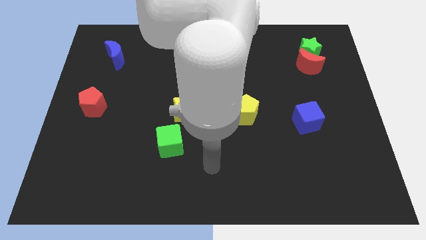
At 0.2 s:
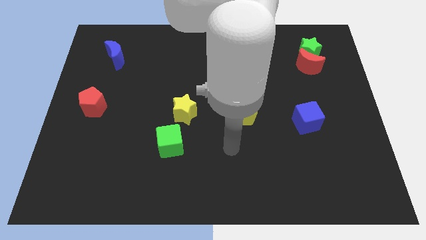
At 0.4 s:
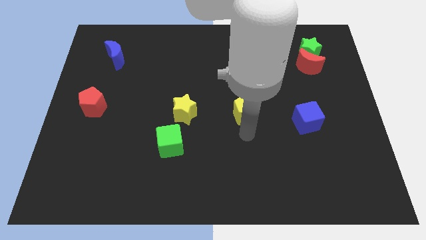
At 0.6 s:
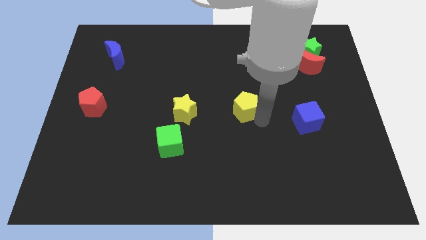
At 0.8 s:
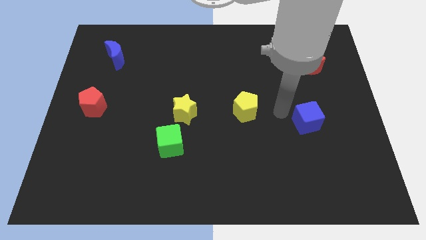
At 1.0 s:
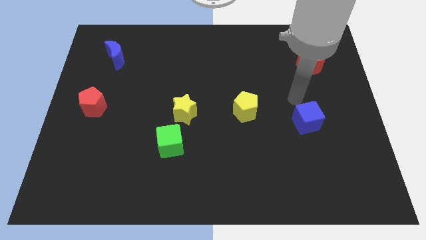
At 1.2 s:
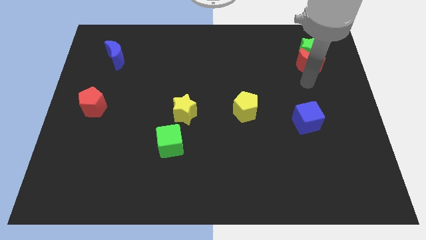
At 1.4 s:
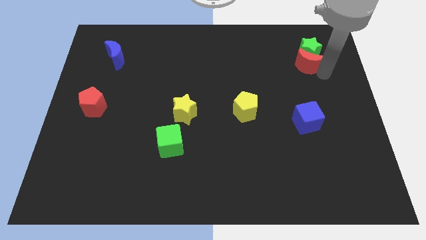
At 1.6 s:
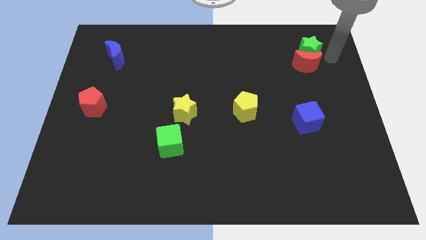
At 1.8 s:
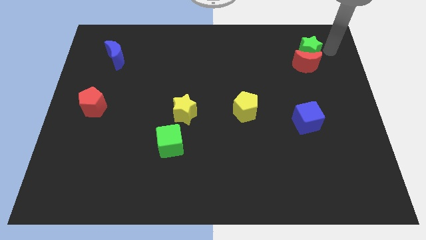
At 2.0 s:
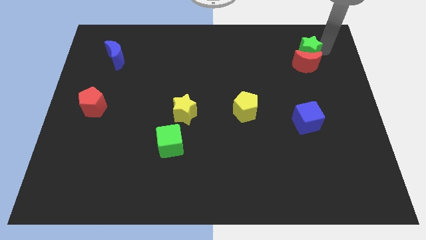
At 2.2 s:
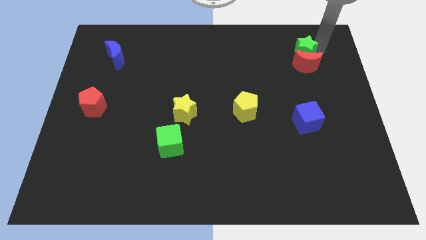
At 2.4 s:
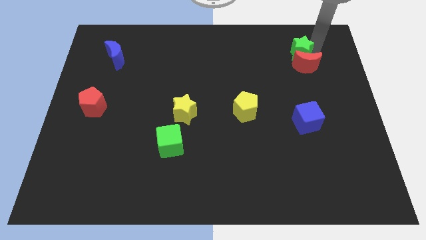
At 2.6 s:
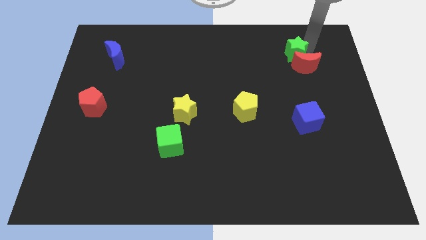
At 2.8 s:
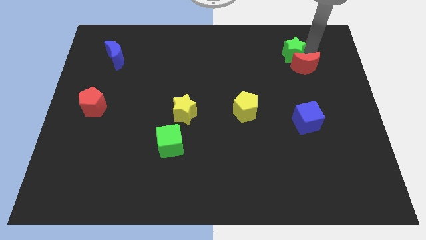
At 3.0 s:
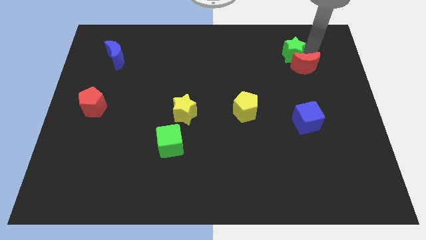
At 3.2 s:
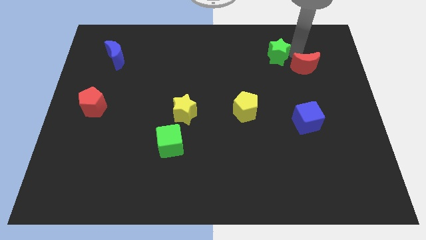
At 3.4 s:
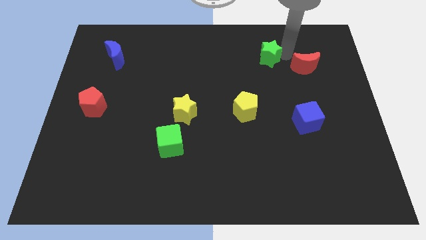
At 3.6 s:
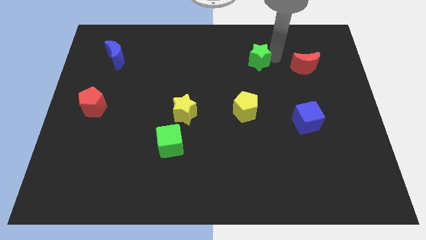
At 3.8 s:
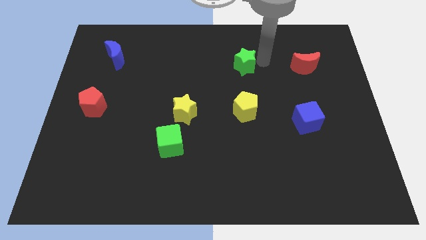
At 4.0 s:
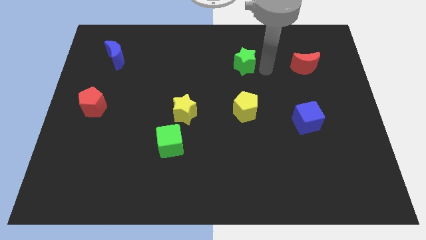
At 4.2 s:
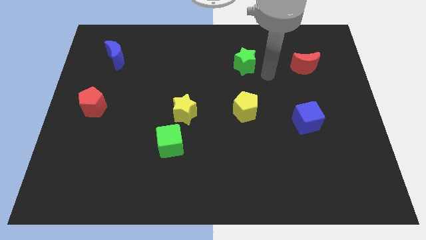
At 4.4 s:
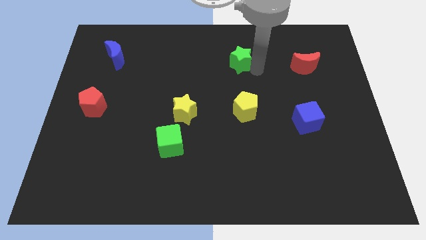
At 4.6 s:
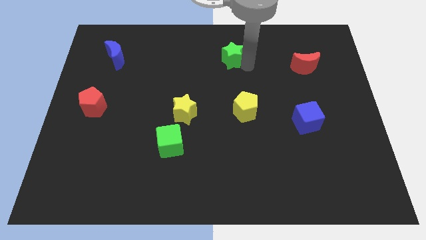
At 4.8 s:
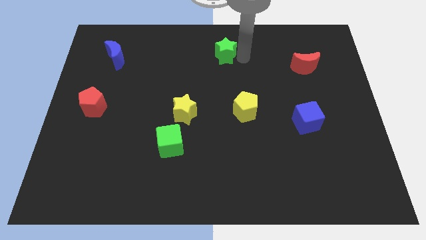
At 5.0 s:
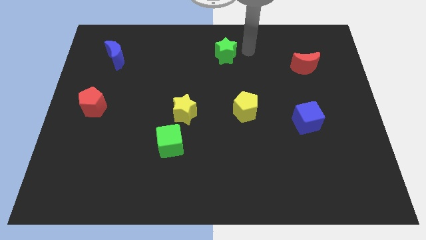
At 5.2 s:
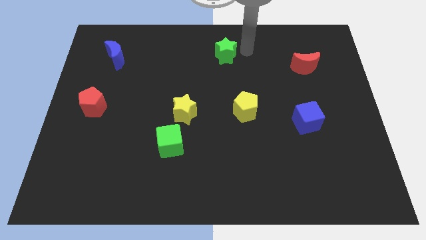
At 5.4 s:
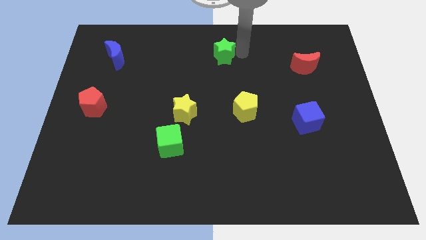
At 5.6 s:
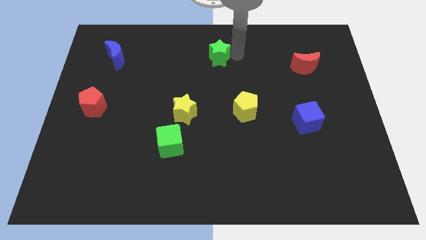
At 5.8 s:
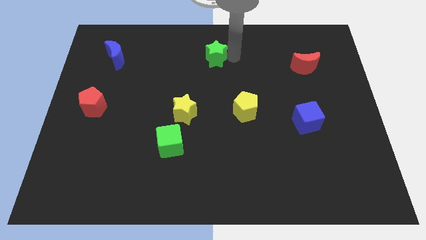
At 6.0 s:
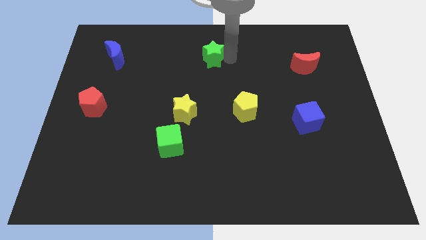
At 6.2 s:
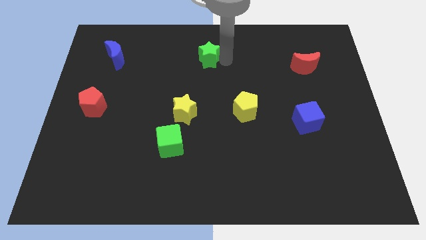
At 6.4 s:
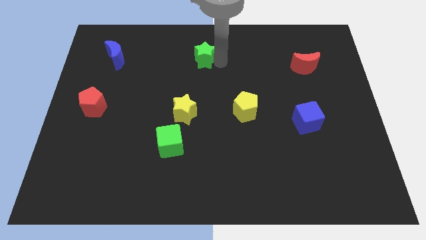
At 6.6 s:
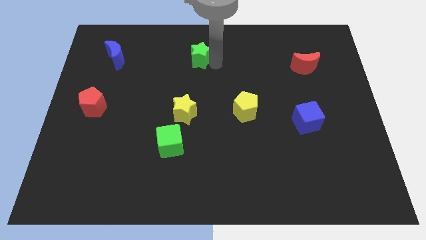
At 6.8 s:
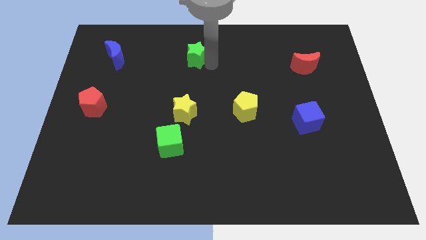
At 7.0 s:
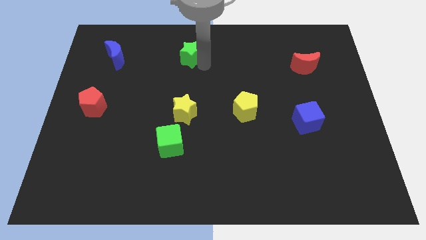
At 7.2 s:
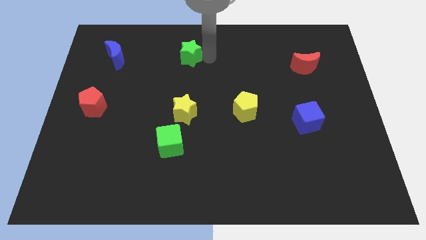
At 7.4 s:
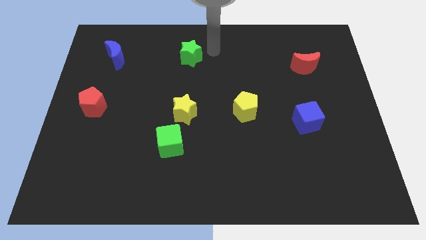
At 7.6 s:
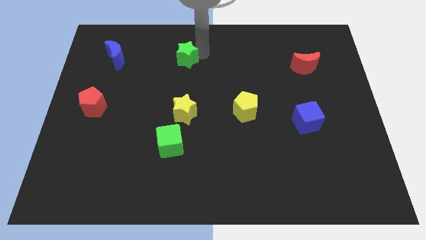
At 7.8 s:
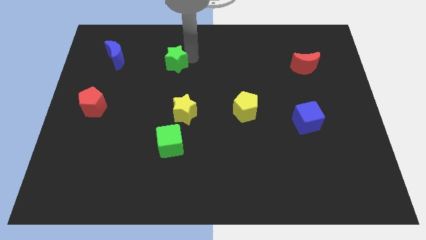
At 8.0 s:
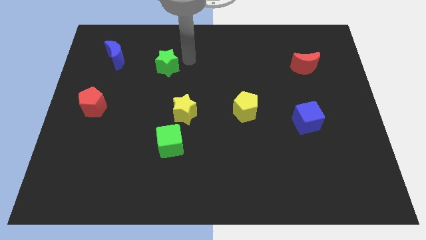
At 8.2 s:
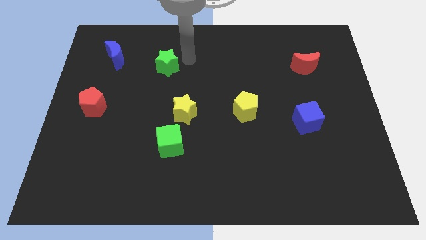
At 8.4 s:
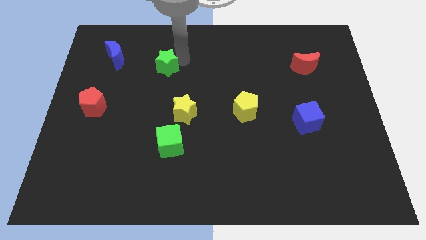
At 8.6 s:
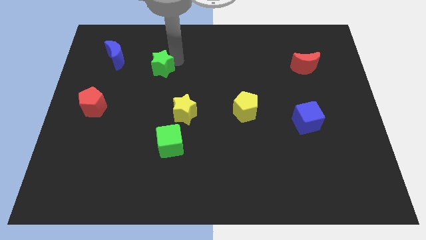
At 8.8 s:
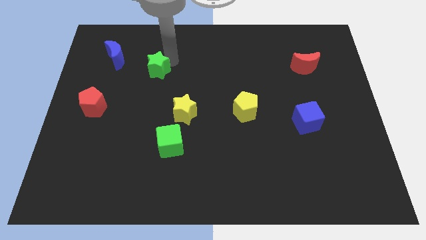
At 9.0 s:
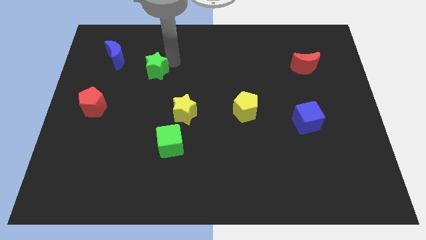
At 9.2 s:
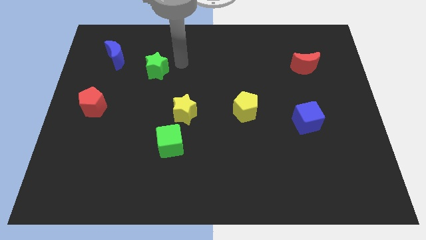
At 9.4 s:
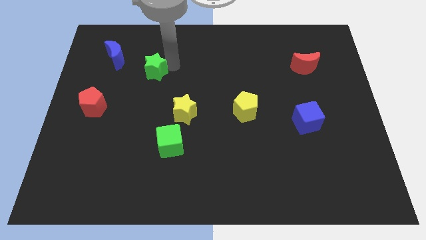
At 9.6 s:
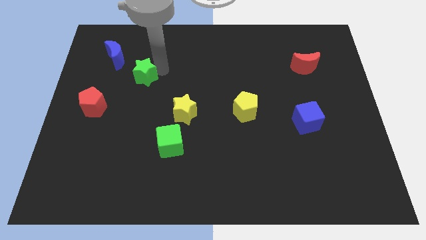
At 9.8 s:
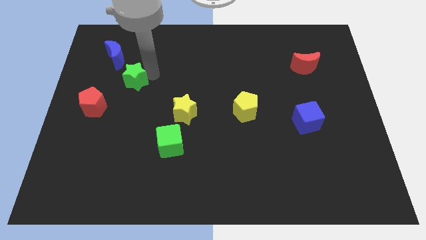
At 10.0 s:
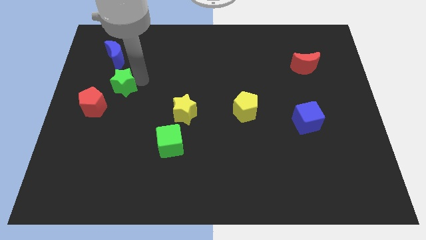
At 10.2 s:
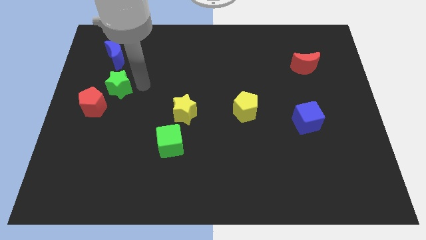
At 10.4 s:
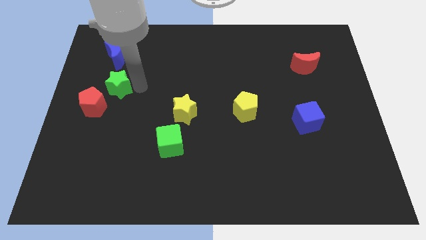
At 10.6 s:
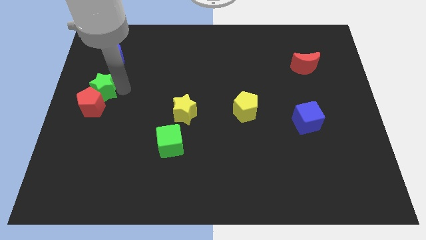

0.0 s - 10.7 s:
push the green star to the left side

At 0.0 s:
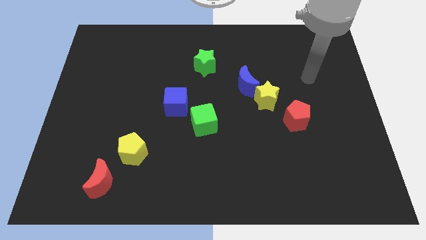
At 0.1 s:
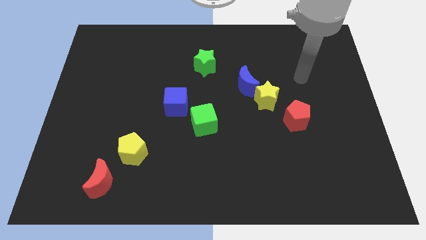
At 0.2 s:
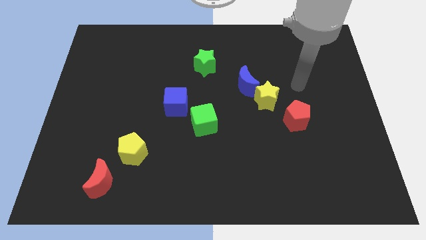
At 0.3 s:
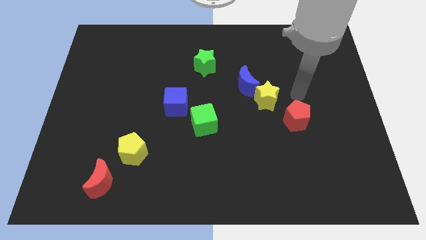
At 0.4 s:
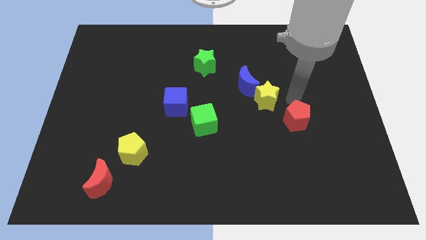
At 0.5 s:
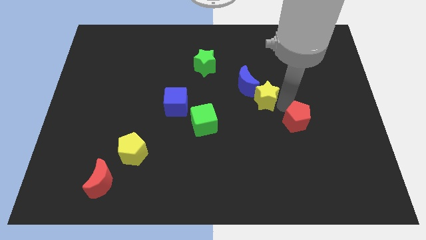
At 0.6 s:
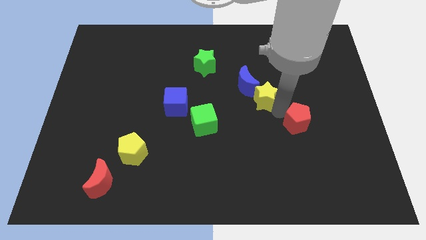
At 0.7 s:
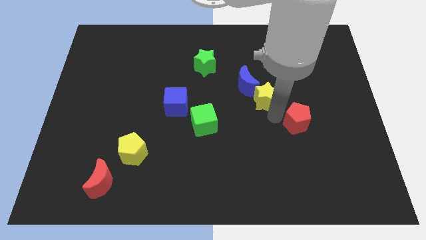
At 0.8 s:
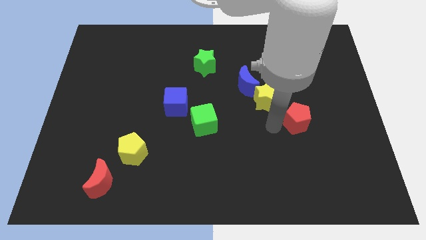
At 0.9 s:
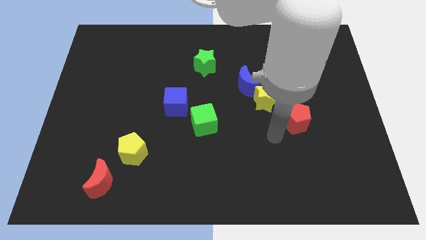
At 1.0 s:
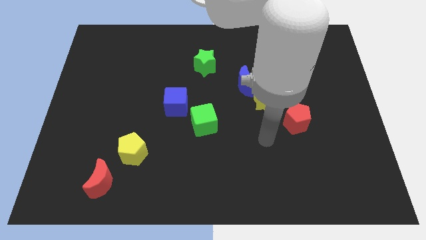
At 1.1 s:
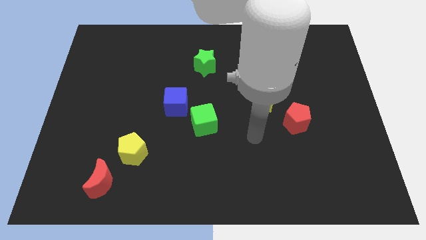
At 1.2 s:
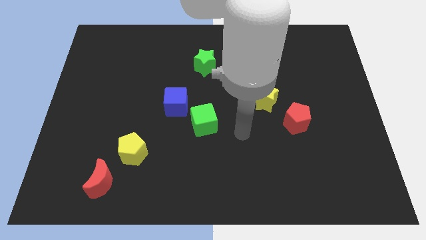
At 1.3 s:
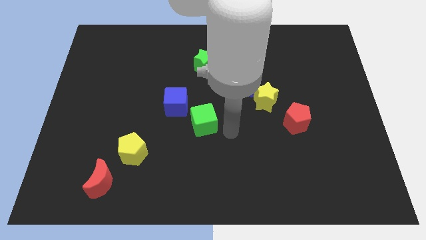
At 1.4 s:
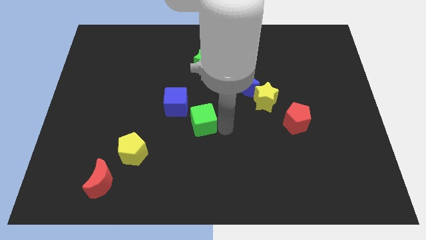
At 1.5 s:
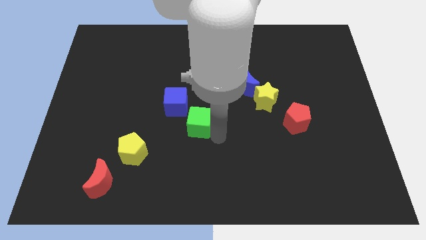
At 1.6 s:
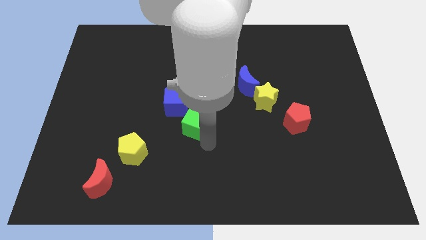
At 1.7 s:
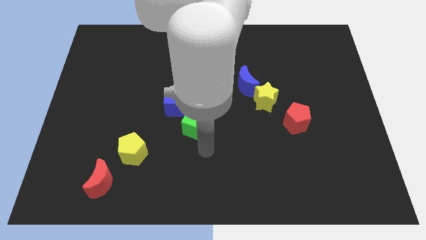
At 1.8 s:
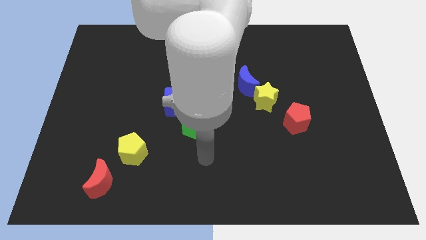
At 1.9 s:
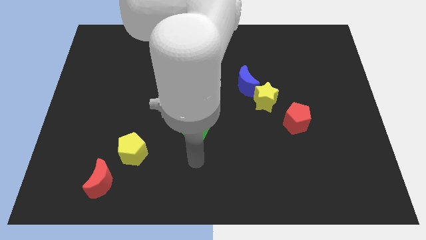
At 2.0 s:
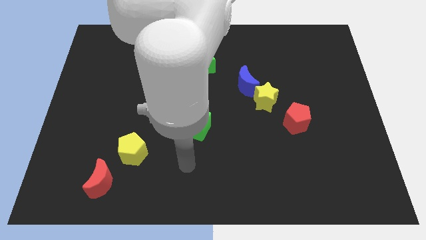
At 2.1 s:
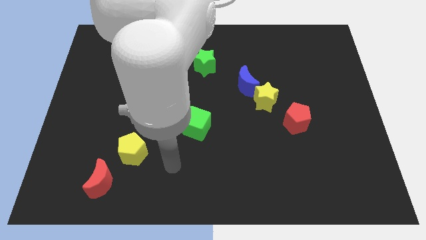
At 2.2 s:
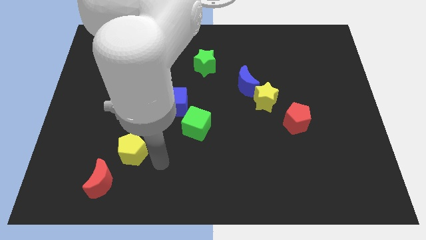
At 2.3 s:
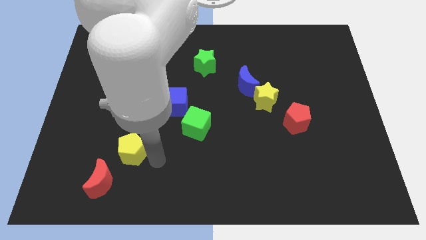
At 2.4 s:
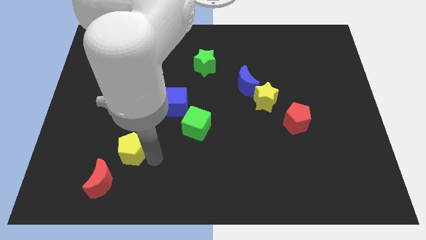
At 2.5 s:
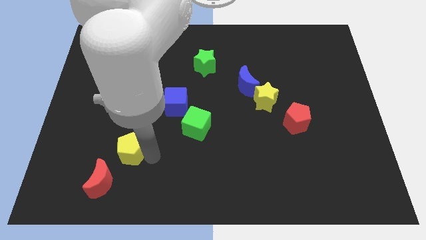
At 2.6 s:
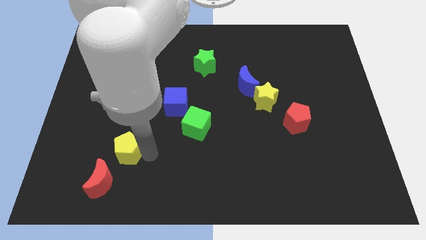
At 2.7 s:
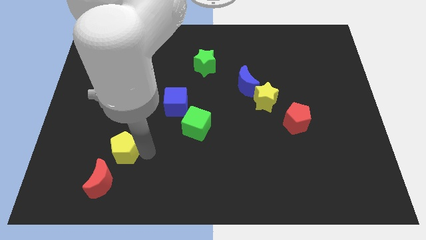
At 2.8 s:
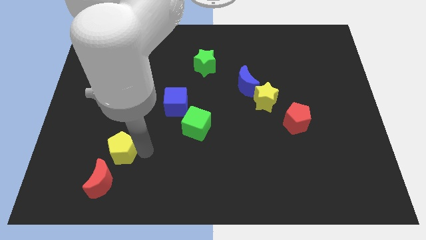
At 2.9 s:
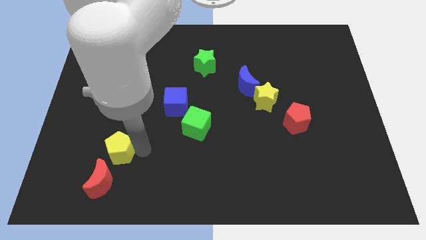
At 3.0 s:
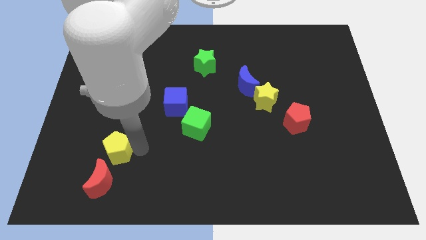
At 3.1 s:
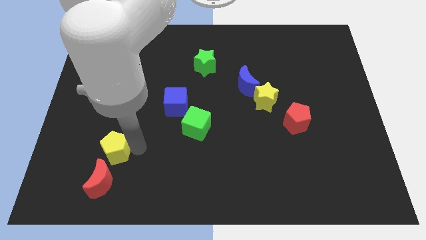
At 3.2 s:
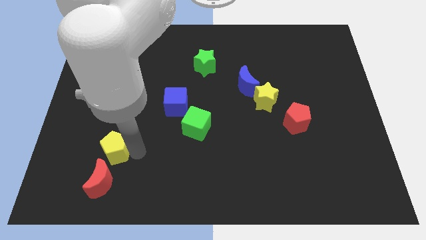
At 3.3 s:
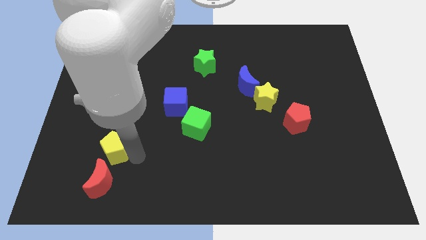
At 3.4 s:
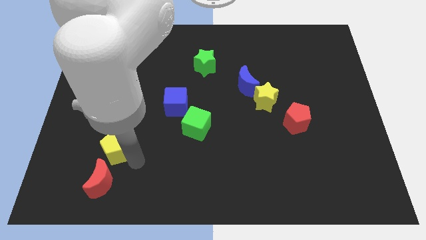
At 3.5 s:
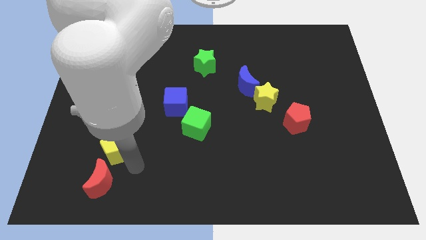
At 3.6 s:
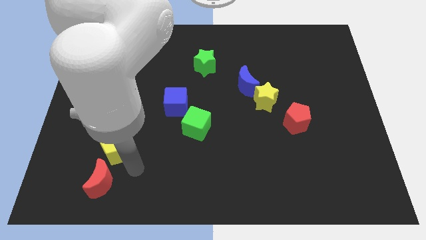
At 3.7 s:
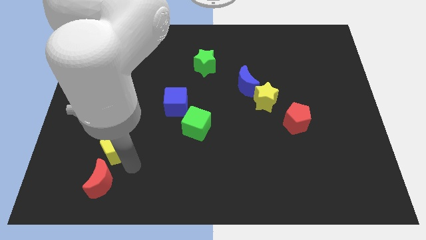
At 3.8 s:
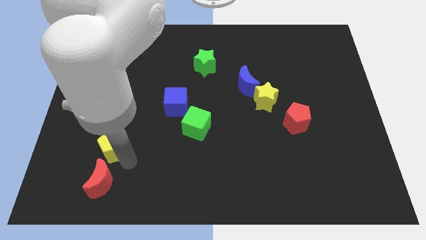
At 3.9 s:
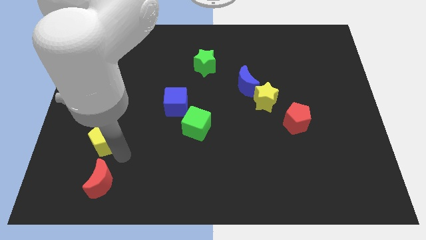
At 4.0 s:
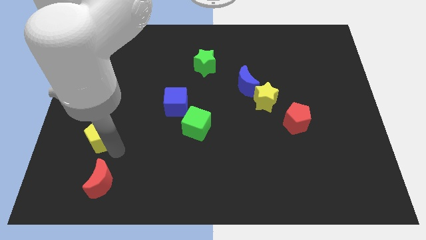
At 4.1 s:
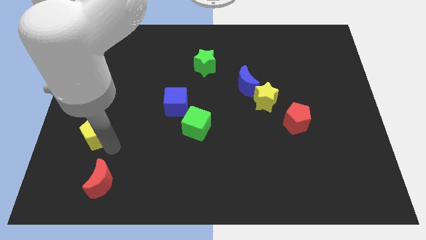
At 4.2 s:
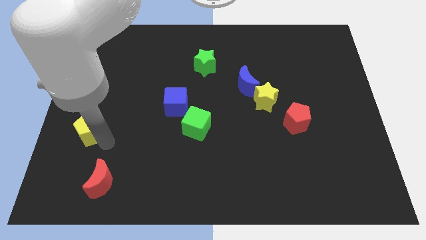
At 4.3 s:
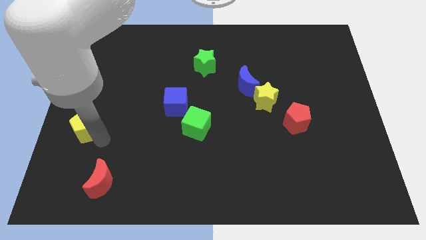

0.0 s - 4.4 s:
move the yellow pentagon to the left side of the board
